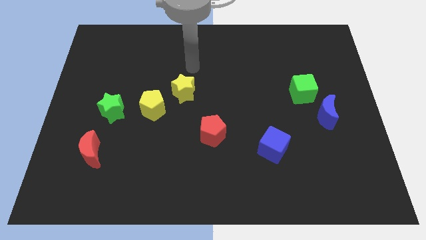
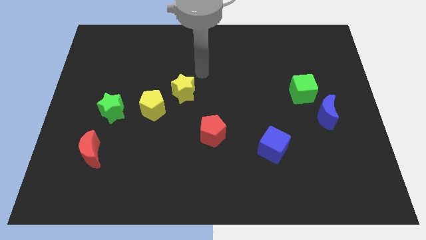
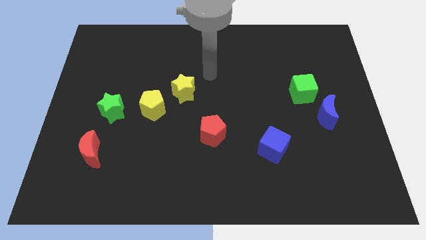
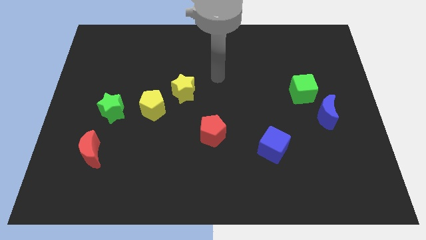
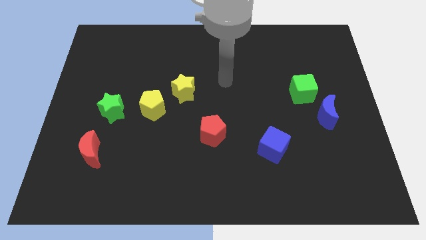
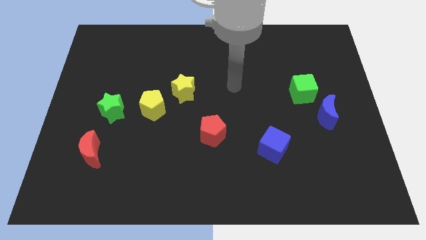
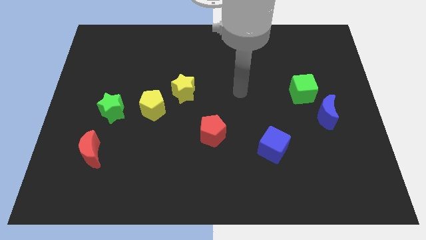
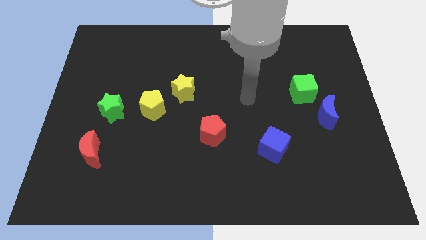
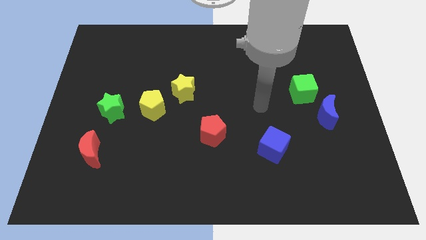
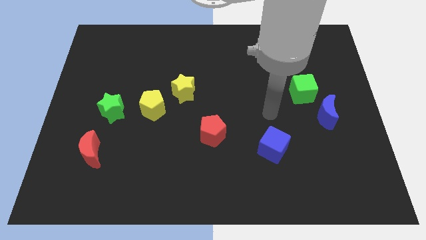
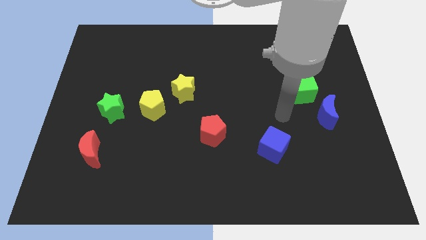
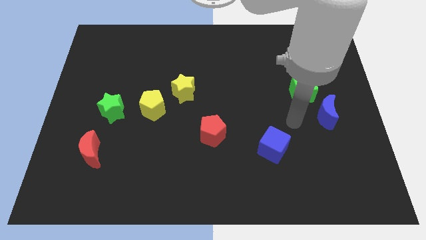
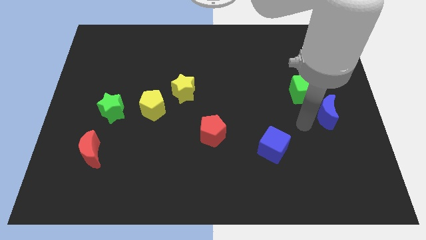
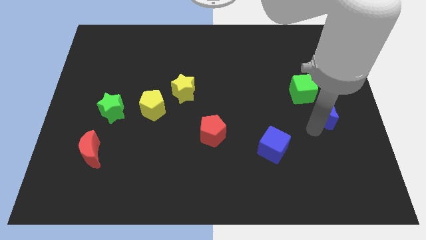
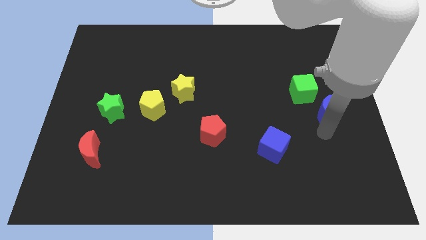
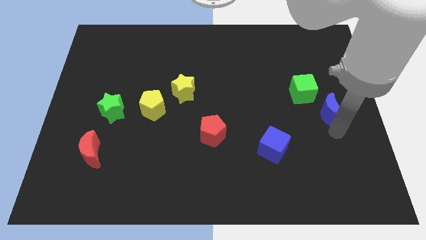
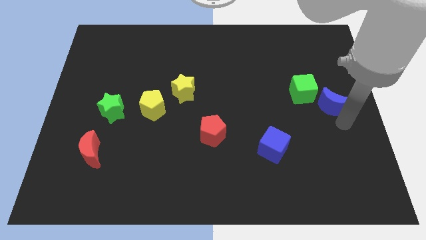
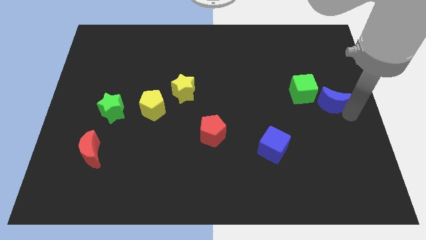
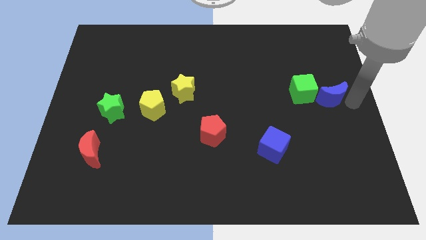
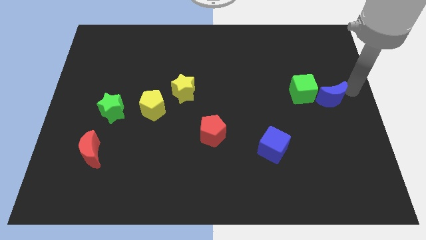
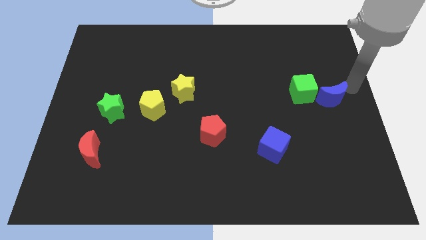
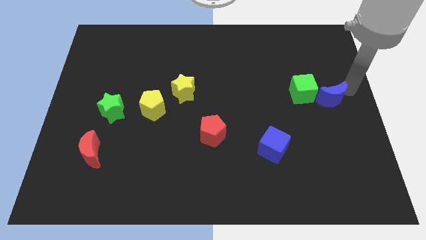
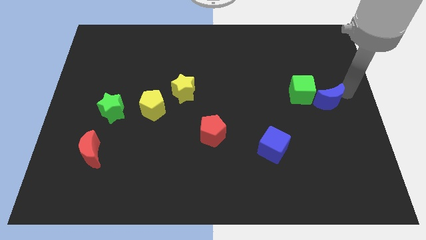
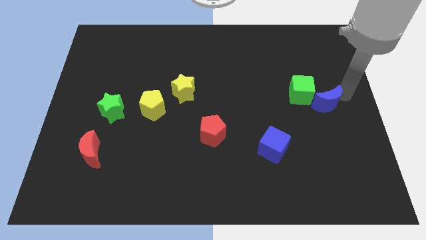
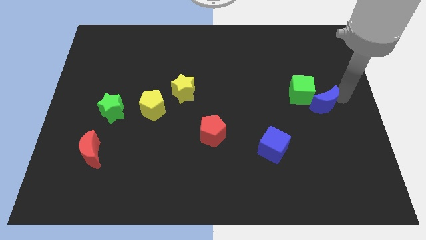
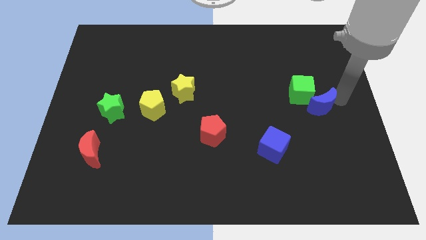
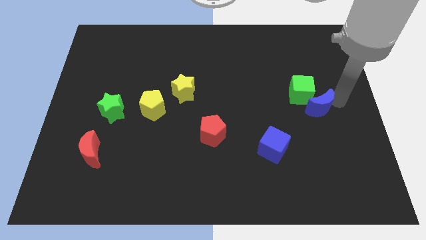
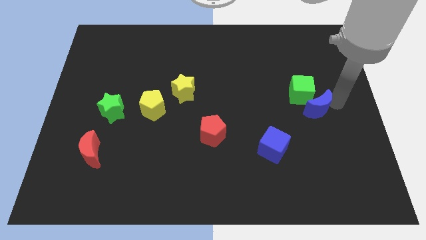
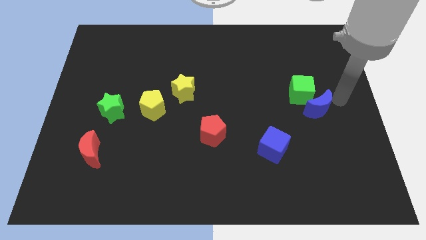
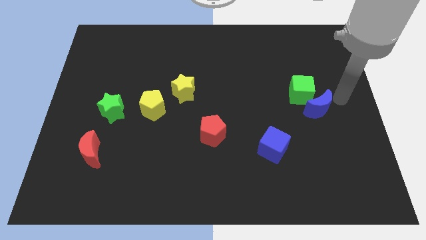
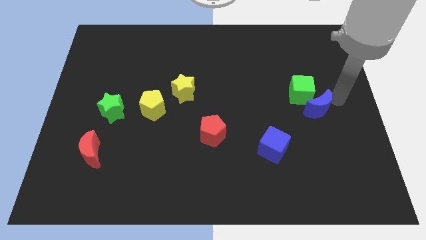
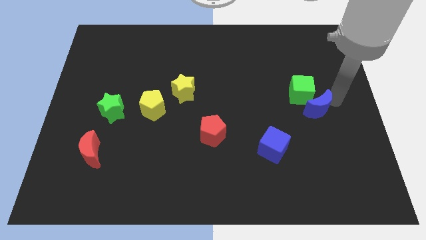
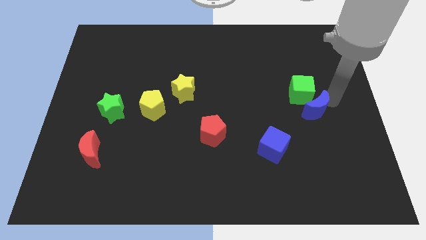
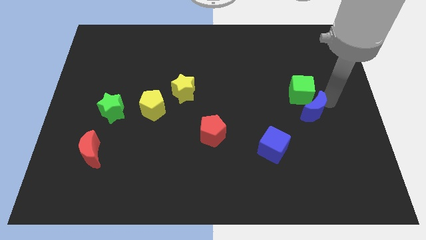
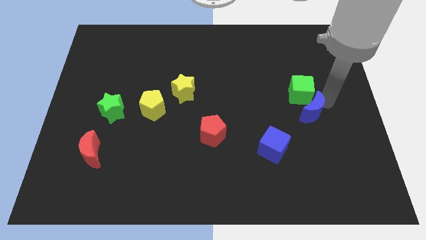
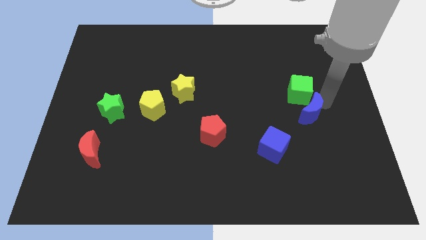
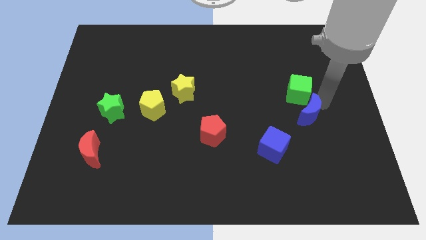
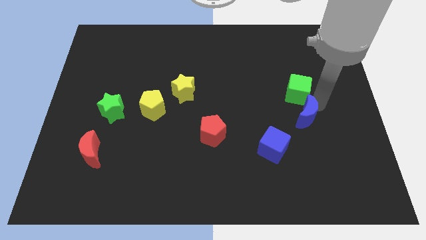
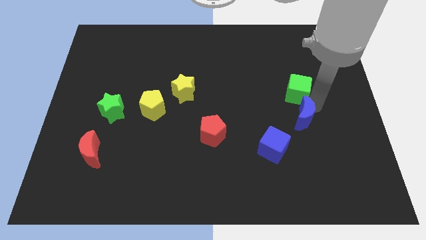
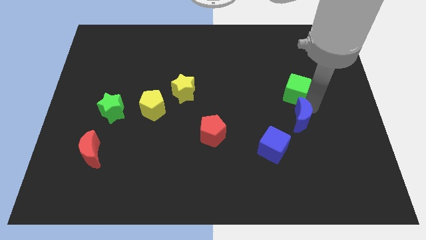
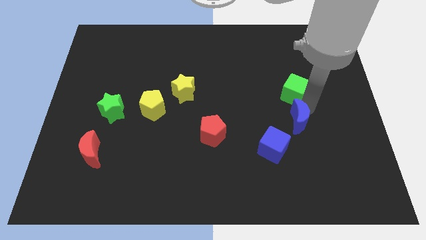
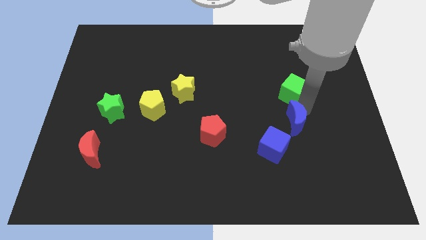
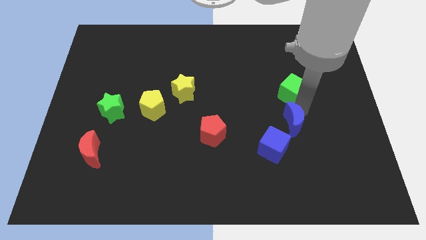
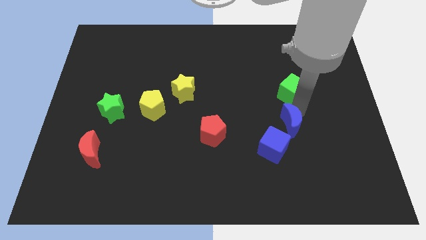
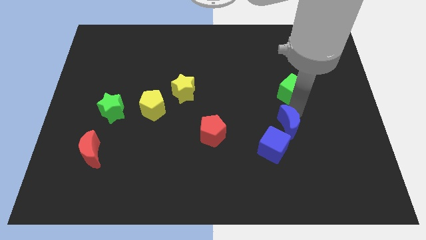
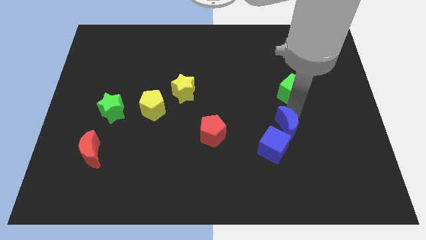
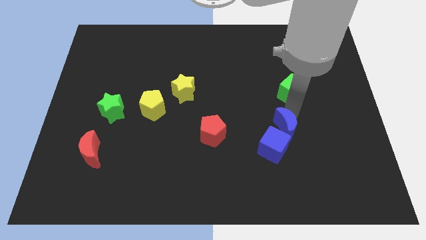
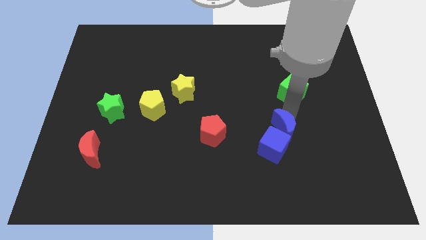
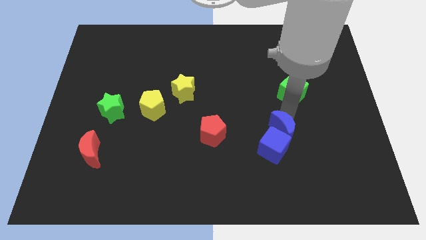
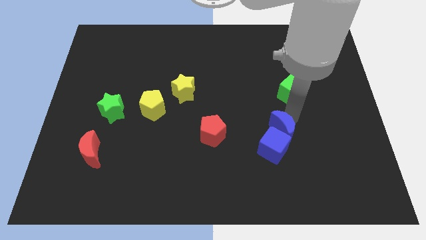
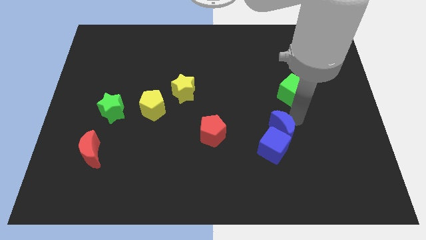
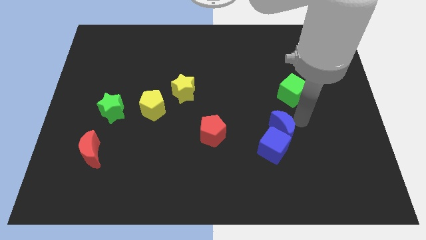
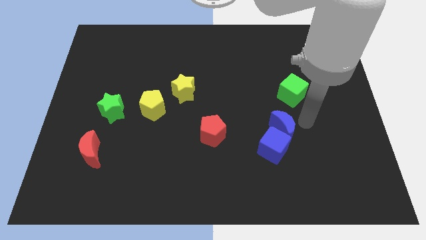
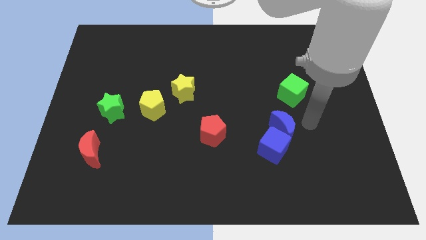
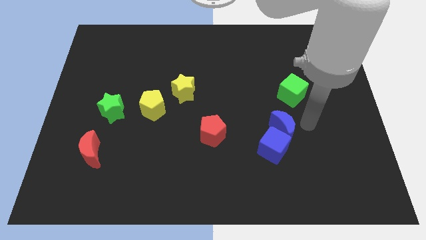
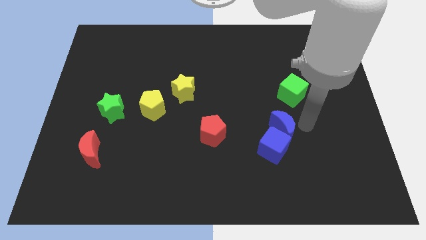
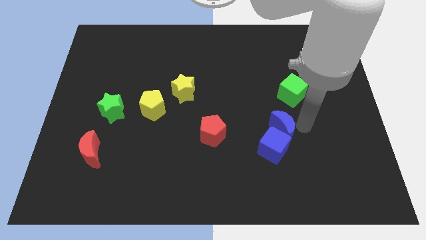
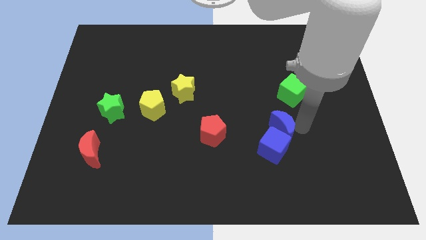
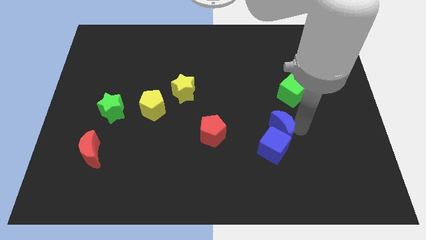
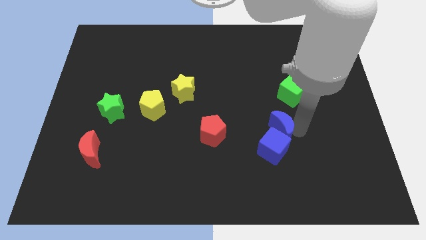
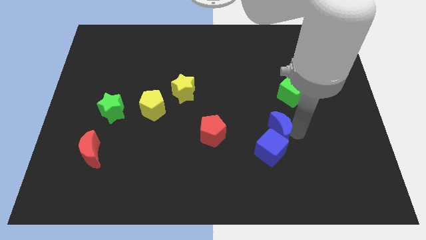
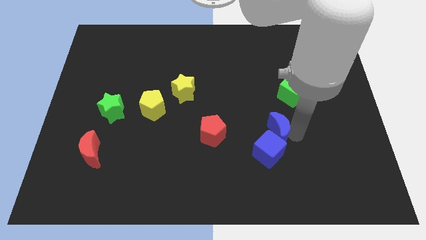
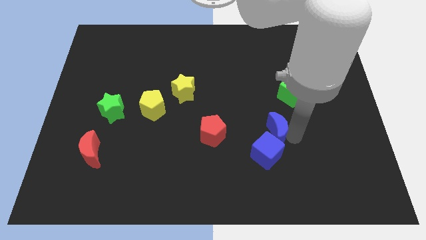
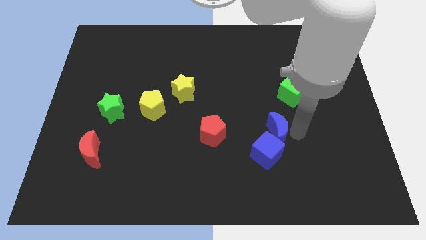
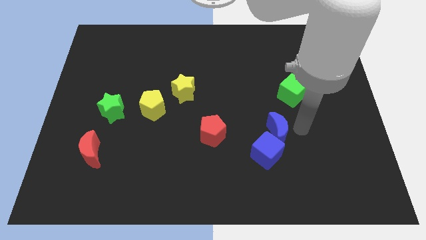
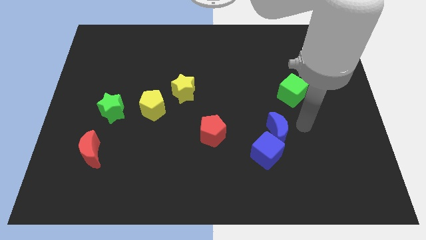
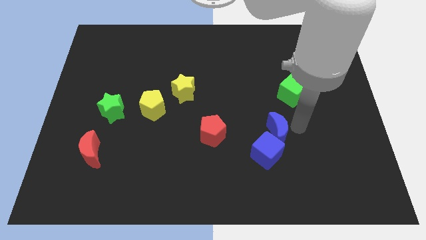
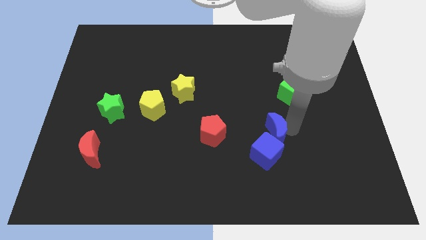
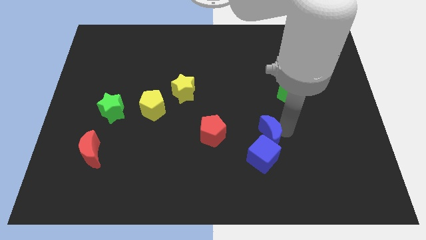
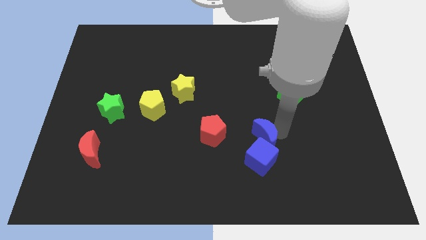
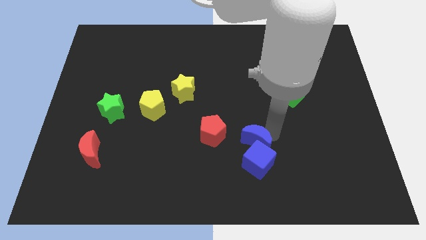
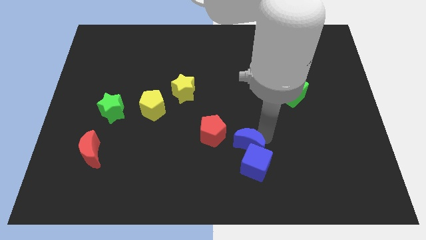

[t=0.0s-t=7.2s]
slide the blue moon to the bottom right of the red pentagon

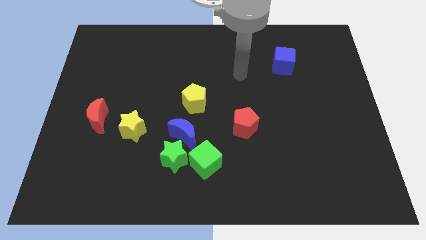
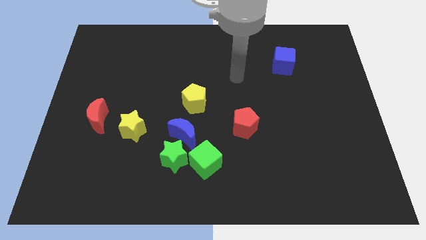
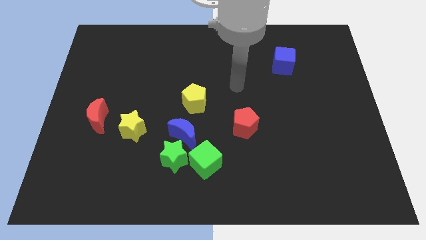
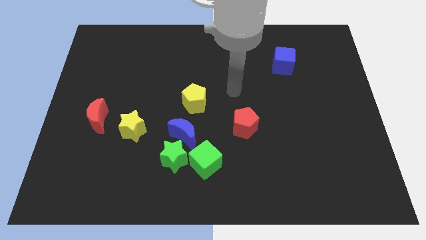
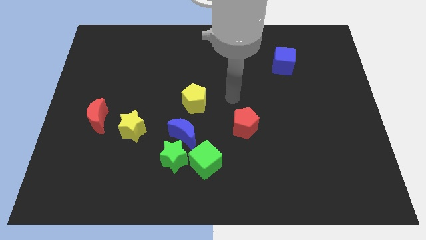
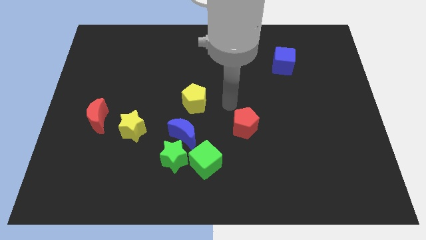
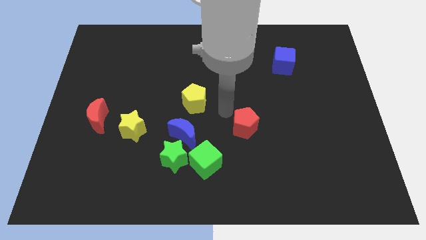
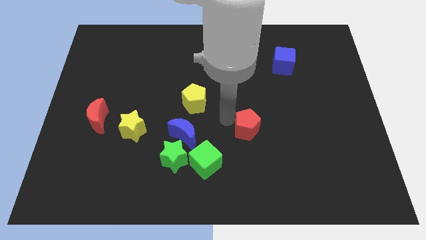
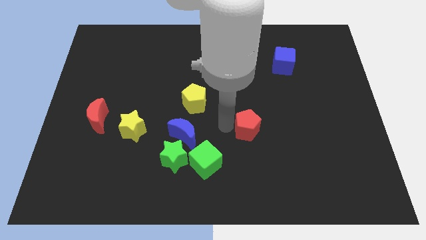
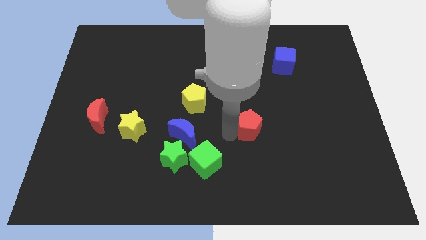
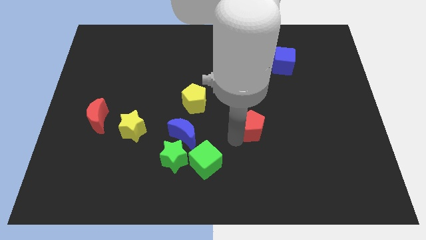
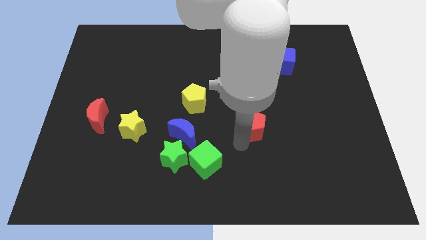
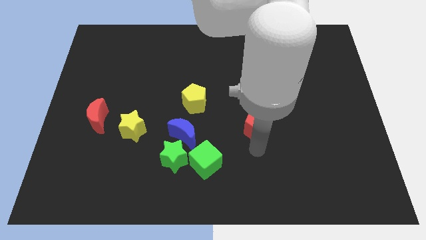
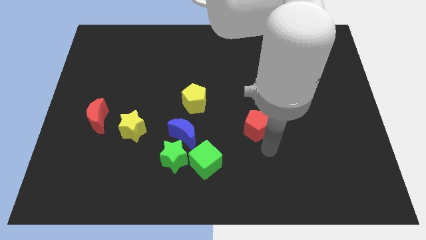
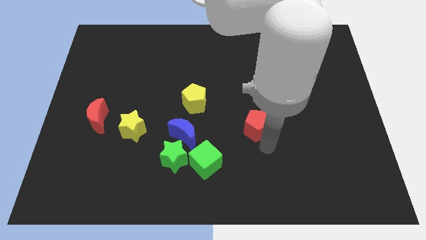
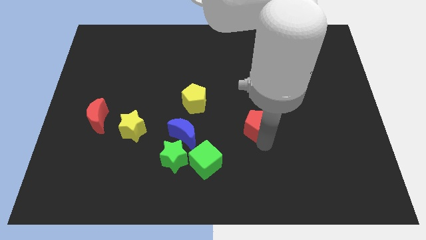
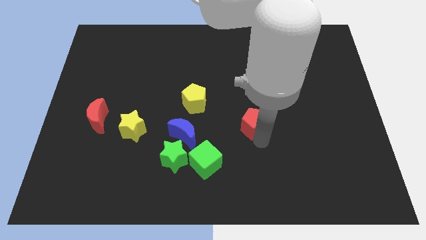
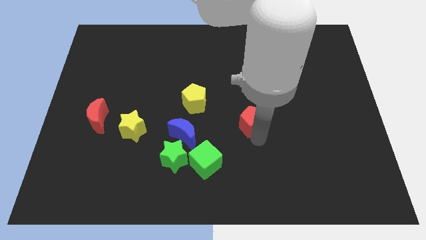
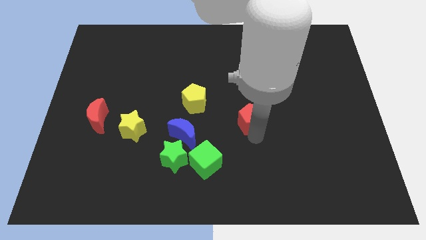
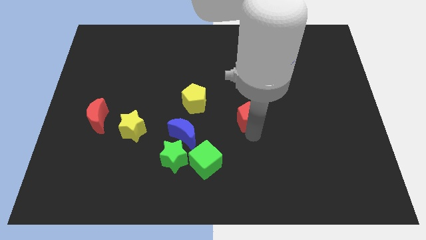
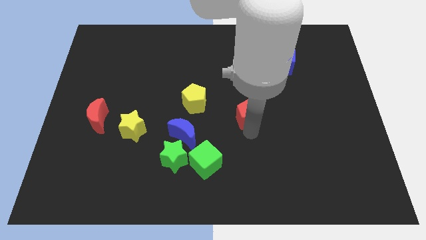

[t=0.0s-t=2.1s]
push the red pentagon to the right of the yellow pentagon
